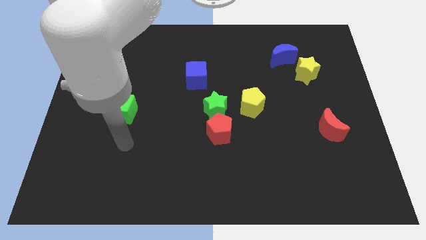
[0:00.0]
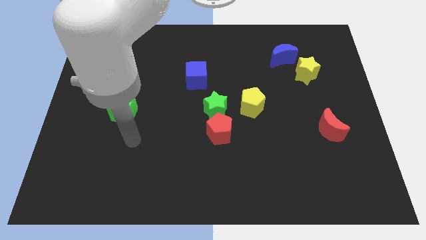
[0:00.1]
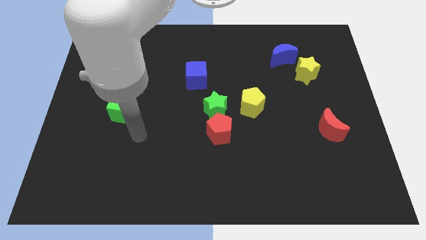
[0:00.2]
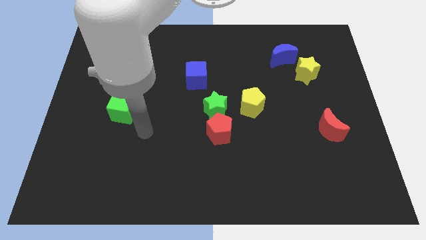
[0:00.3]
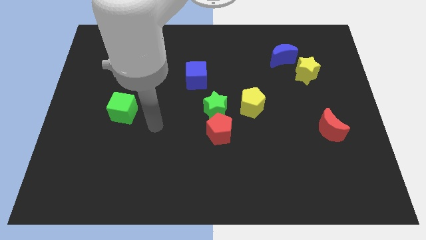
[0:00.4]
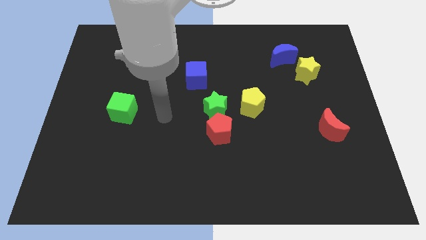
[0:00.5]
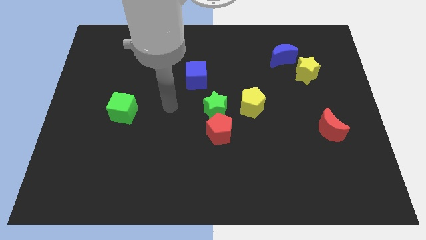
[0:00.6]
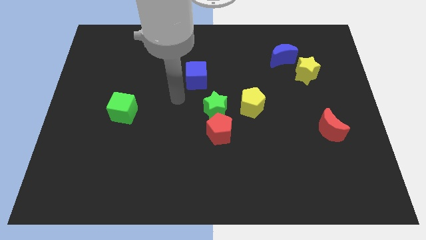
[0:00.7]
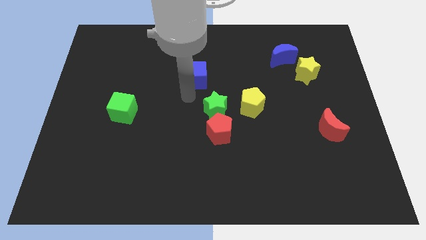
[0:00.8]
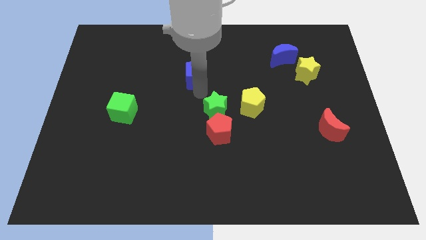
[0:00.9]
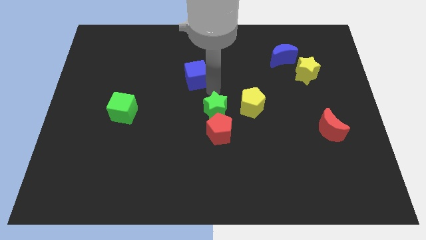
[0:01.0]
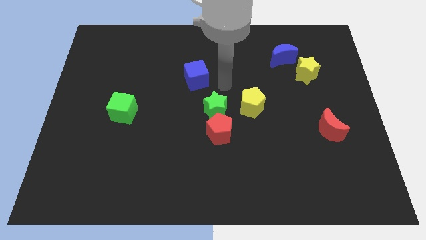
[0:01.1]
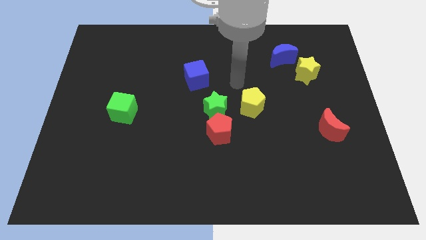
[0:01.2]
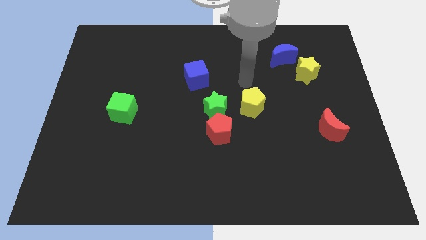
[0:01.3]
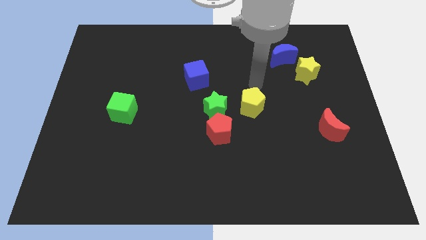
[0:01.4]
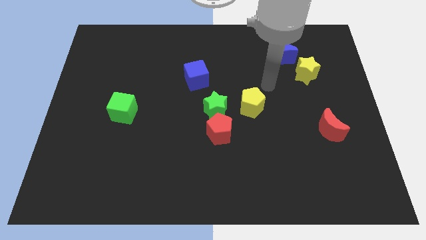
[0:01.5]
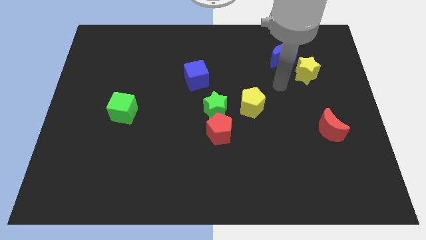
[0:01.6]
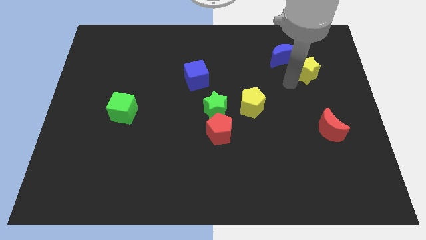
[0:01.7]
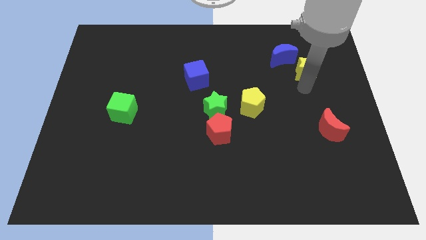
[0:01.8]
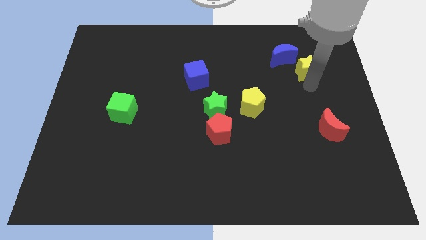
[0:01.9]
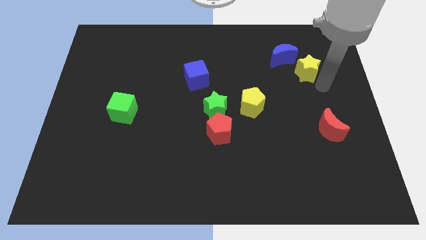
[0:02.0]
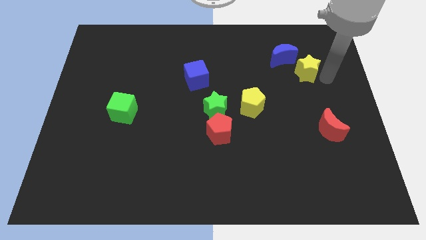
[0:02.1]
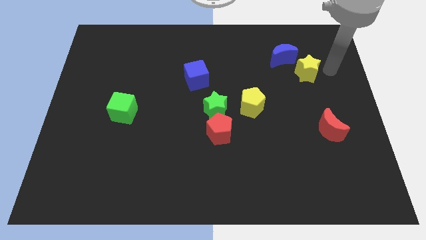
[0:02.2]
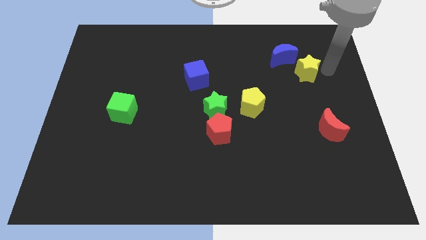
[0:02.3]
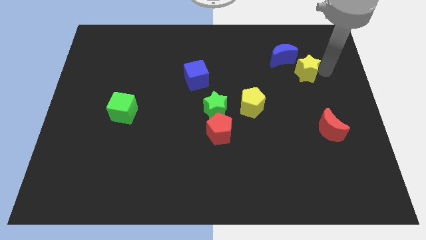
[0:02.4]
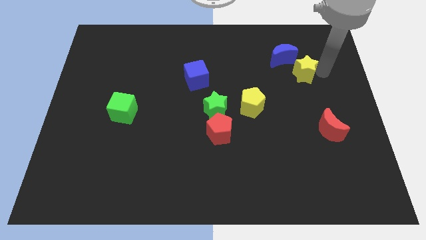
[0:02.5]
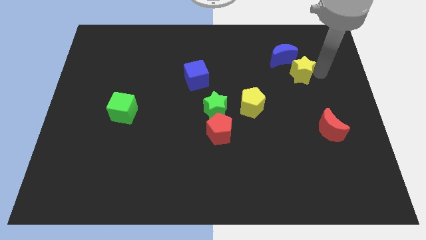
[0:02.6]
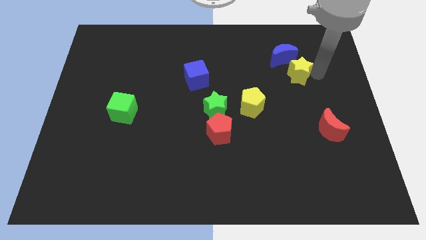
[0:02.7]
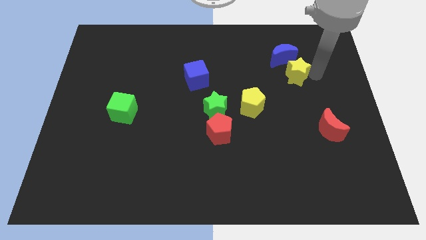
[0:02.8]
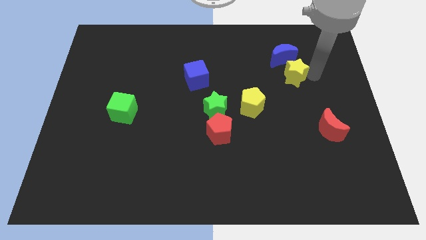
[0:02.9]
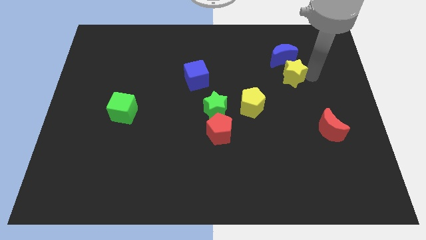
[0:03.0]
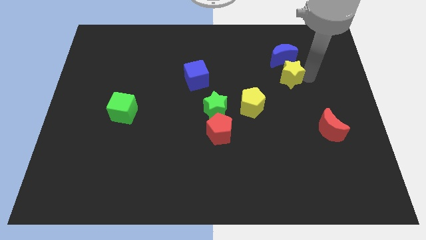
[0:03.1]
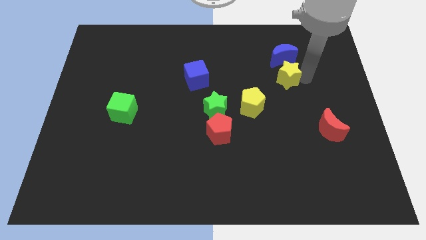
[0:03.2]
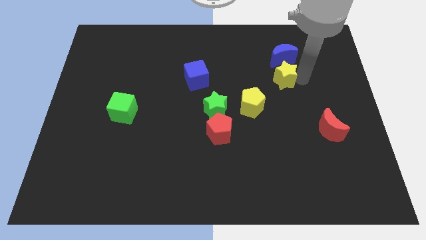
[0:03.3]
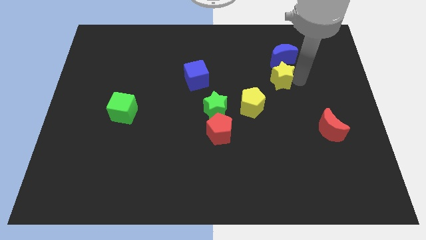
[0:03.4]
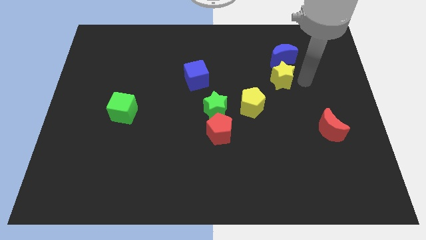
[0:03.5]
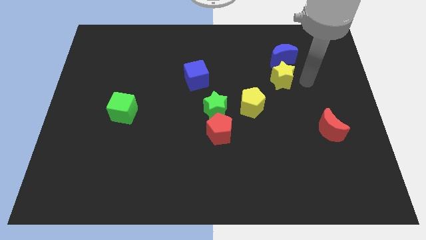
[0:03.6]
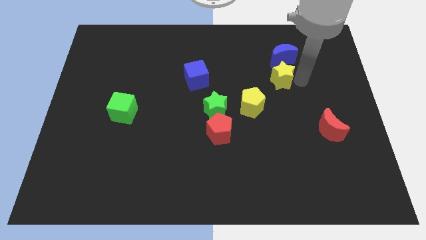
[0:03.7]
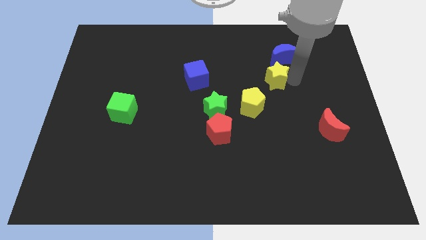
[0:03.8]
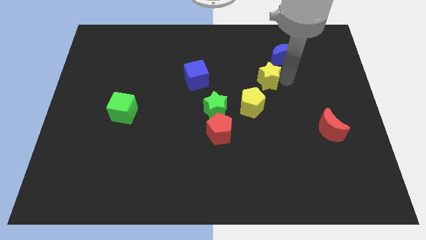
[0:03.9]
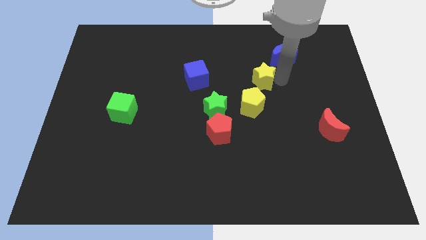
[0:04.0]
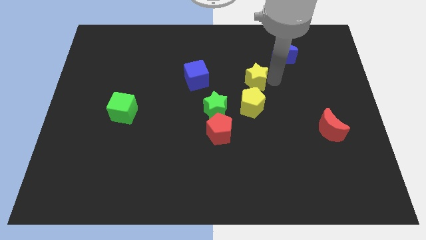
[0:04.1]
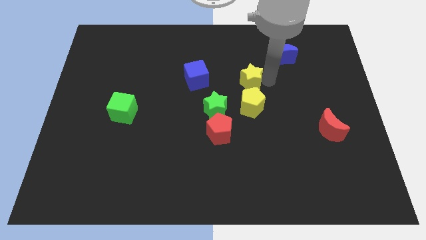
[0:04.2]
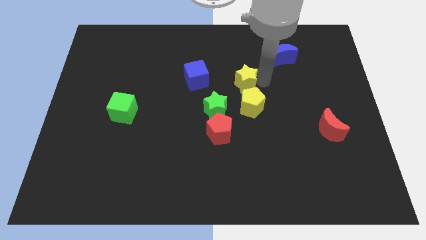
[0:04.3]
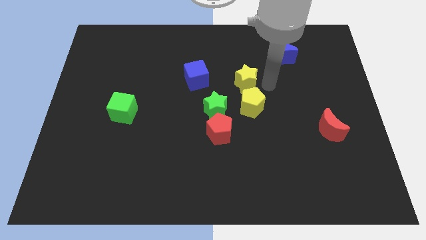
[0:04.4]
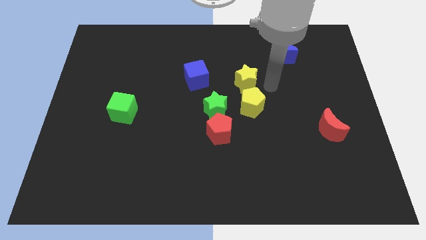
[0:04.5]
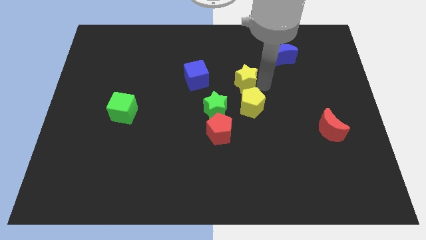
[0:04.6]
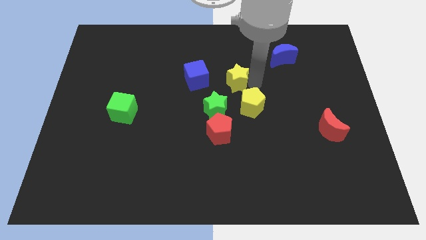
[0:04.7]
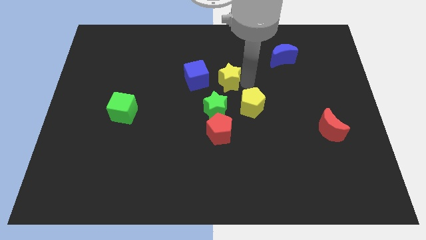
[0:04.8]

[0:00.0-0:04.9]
move the yellow star to the top side of the green star

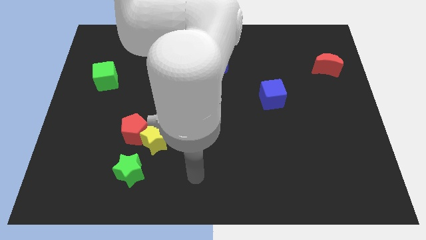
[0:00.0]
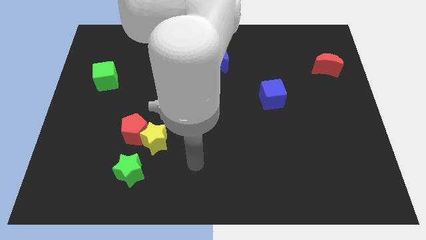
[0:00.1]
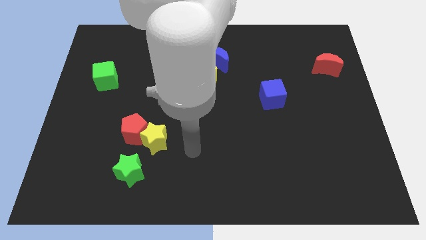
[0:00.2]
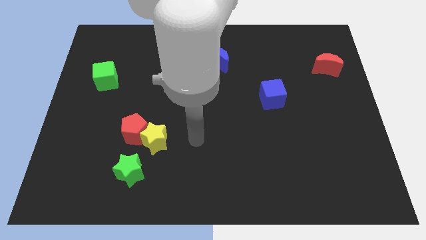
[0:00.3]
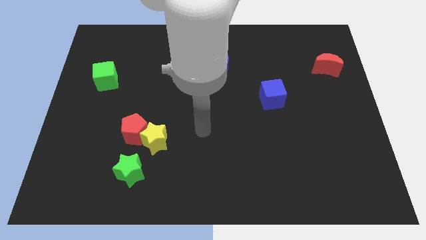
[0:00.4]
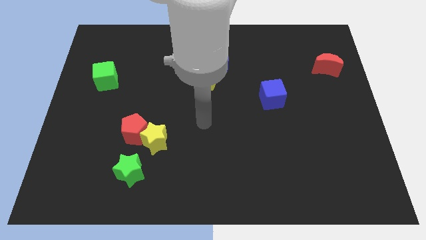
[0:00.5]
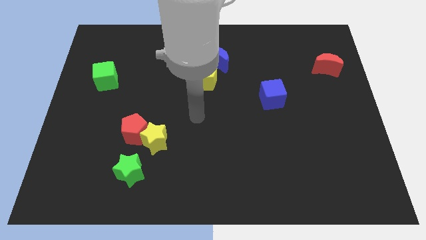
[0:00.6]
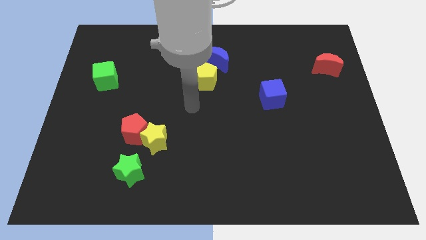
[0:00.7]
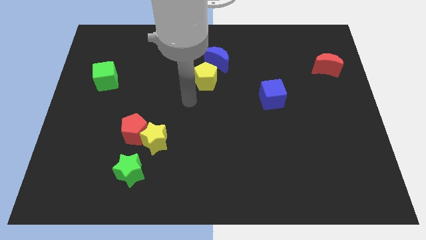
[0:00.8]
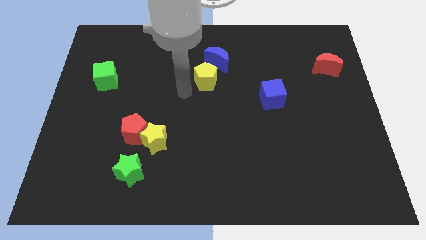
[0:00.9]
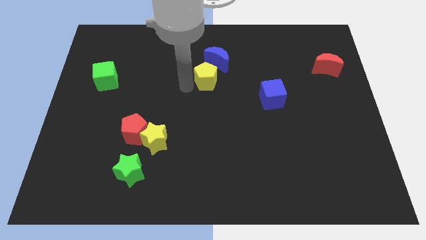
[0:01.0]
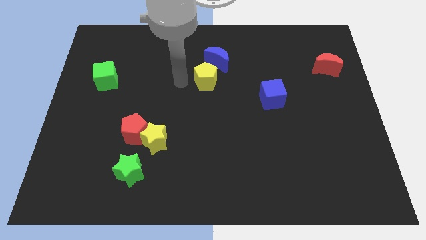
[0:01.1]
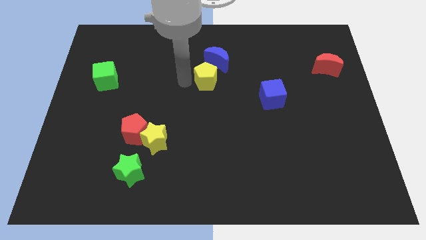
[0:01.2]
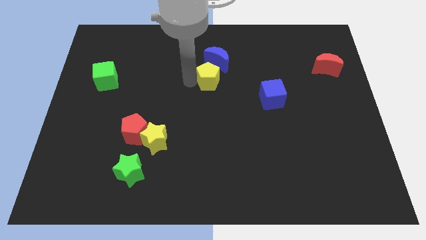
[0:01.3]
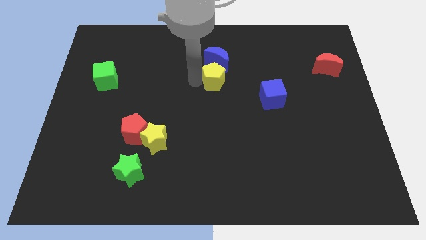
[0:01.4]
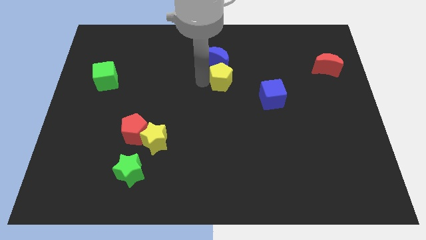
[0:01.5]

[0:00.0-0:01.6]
slide the yellow pentagon to the bottom right of the blue moon

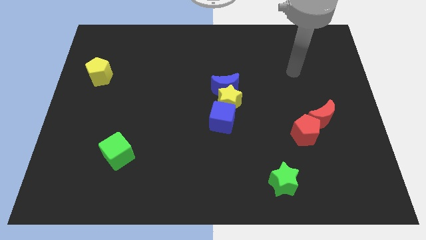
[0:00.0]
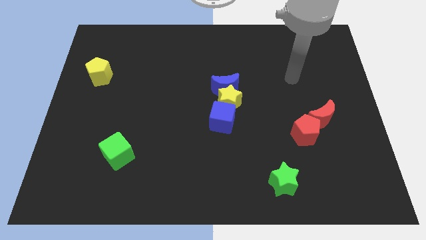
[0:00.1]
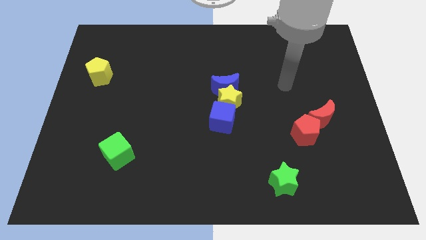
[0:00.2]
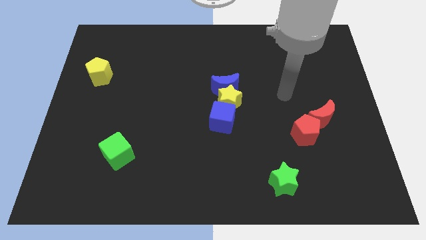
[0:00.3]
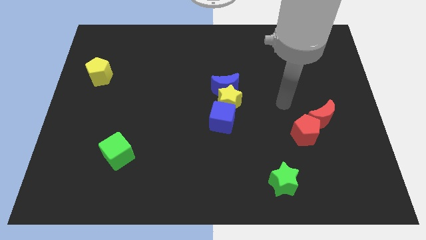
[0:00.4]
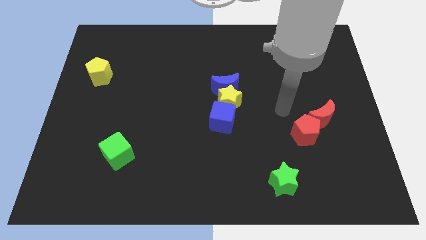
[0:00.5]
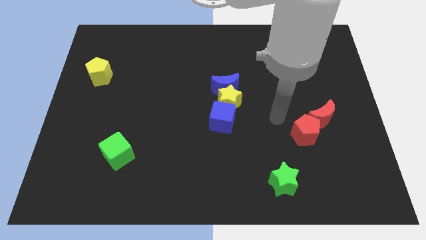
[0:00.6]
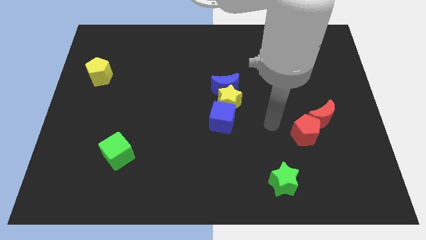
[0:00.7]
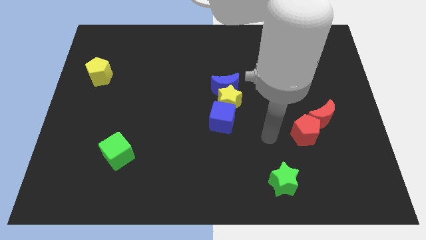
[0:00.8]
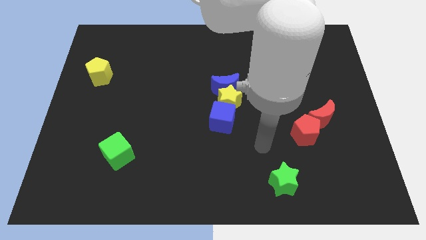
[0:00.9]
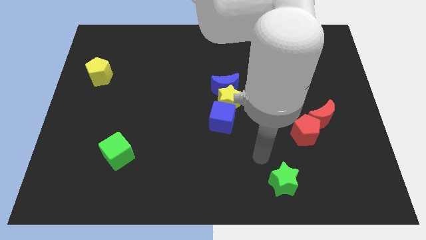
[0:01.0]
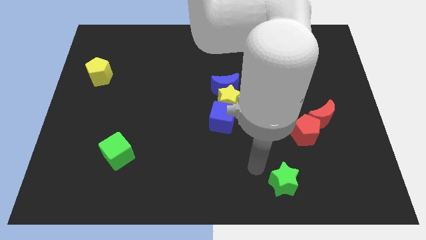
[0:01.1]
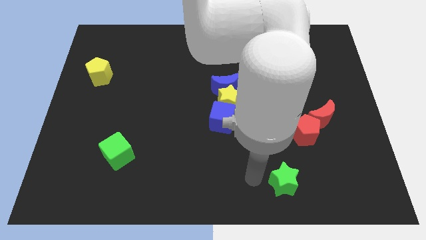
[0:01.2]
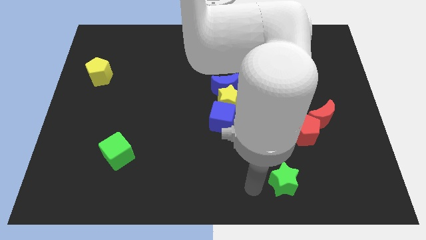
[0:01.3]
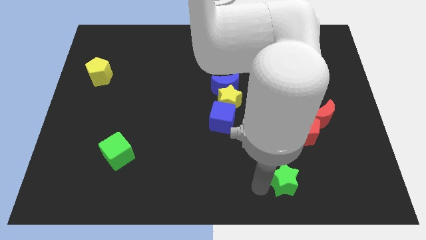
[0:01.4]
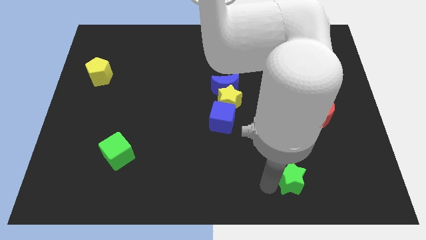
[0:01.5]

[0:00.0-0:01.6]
move the green star below the red pentagon

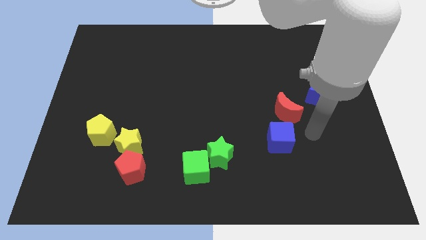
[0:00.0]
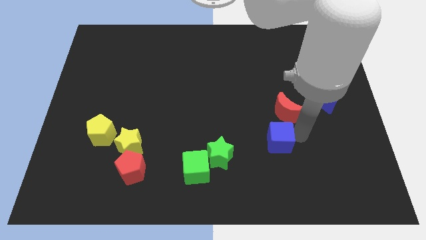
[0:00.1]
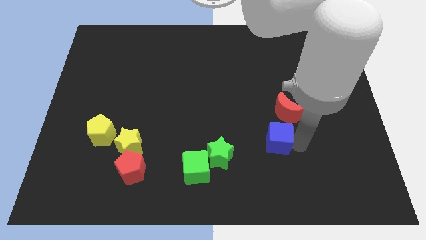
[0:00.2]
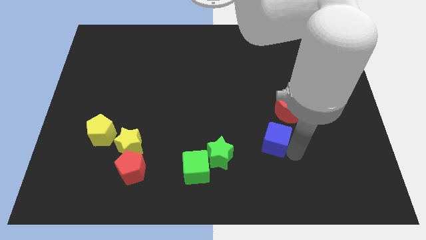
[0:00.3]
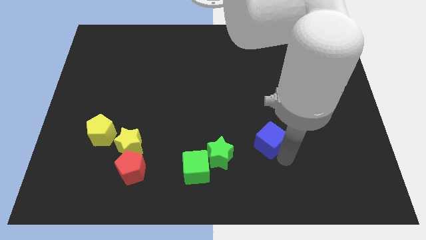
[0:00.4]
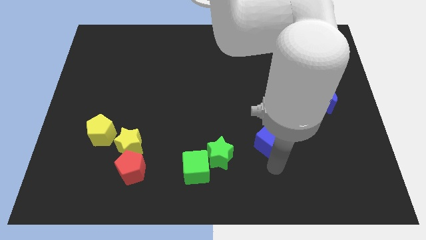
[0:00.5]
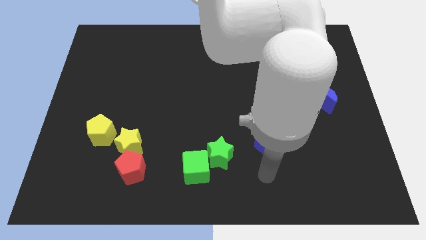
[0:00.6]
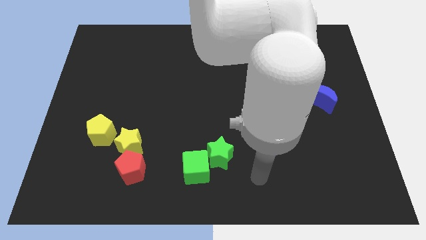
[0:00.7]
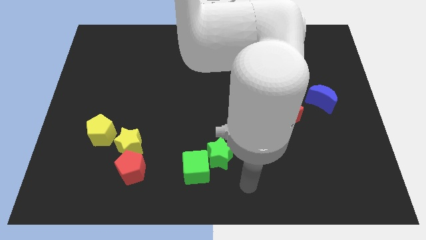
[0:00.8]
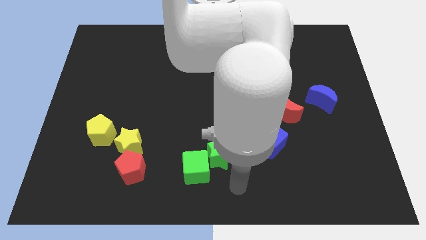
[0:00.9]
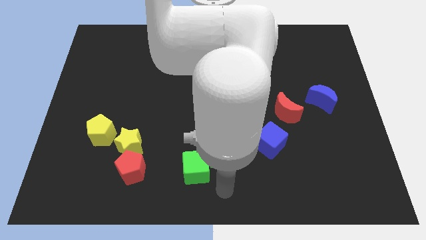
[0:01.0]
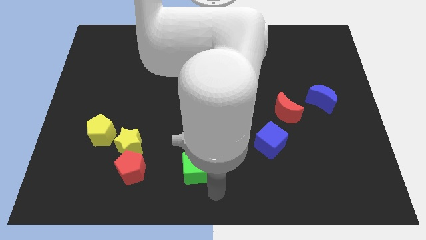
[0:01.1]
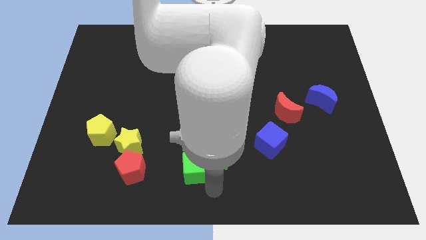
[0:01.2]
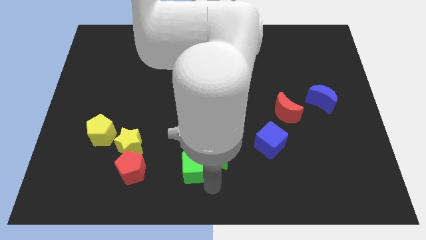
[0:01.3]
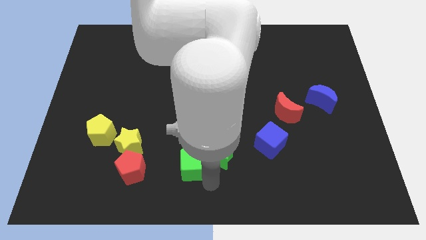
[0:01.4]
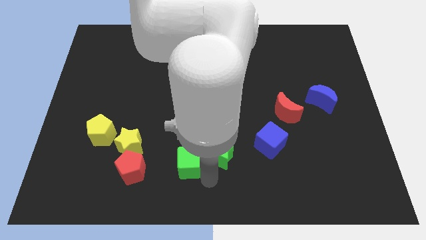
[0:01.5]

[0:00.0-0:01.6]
put the green cube to the right of the yellow star
